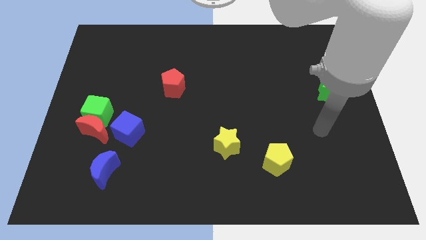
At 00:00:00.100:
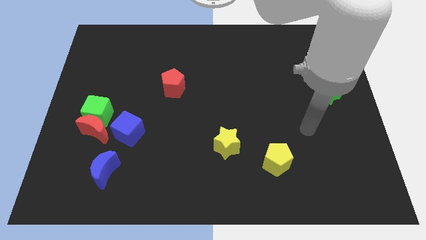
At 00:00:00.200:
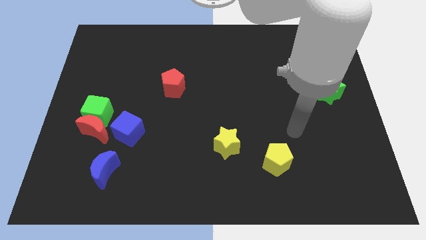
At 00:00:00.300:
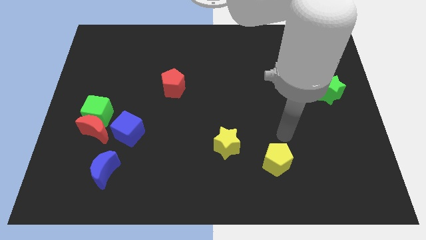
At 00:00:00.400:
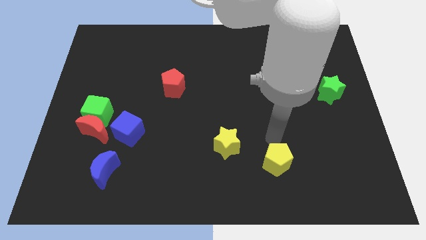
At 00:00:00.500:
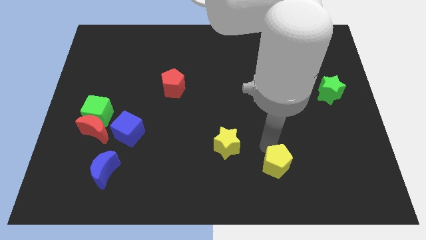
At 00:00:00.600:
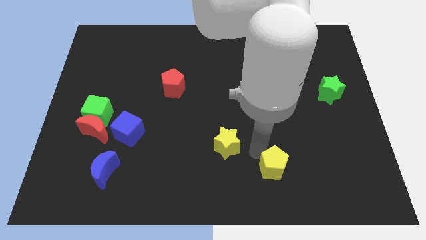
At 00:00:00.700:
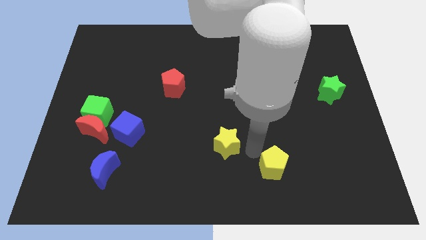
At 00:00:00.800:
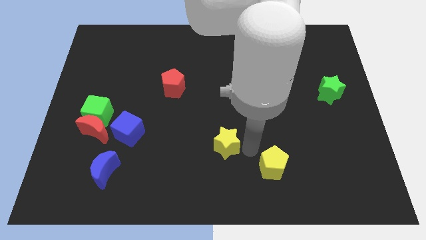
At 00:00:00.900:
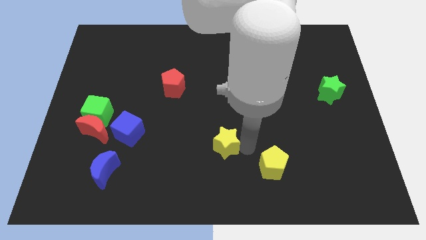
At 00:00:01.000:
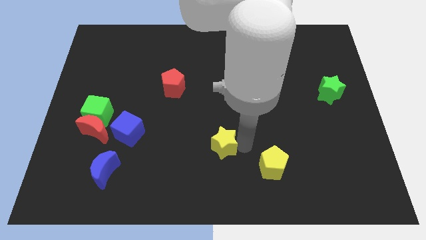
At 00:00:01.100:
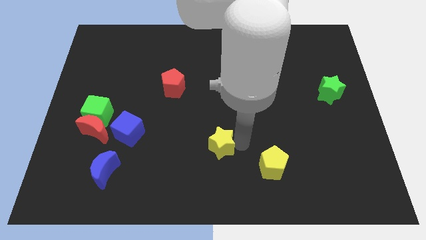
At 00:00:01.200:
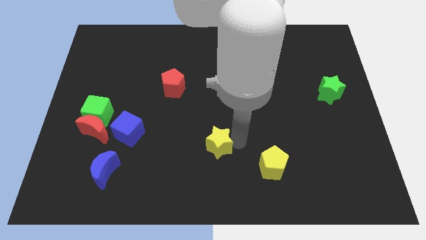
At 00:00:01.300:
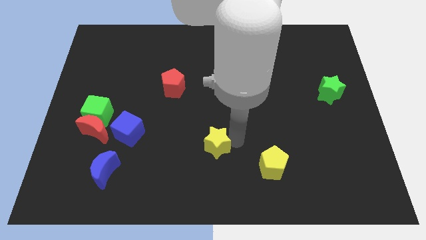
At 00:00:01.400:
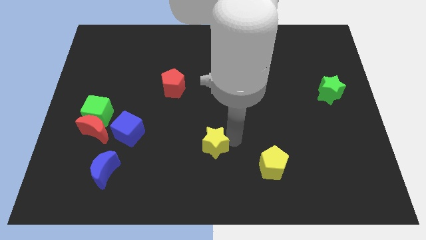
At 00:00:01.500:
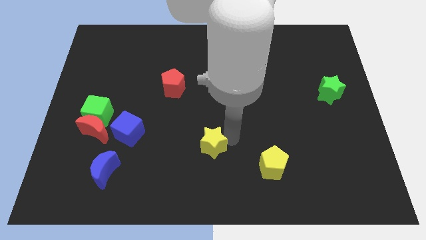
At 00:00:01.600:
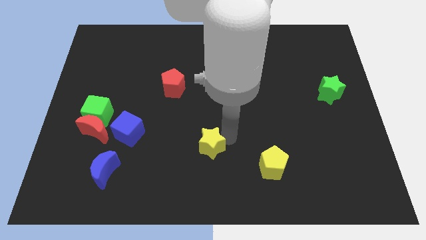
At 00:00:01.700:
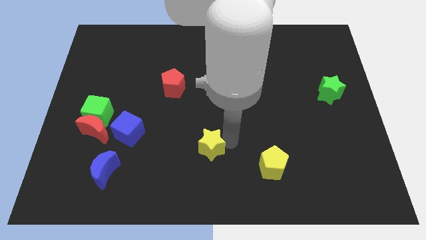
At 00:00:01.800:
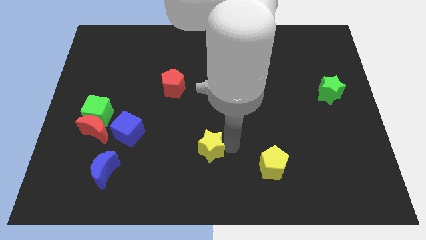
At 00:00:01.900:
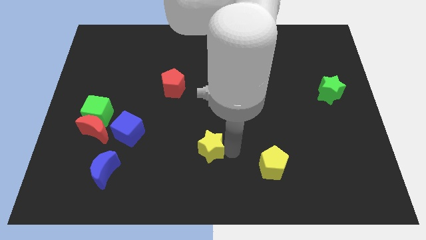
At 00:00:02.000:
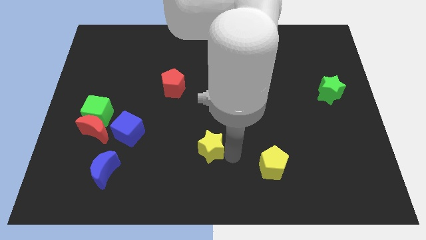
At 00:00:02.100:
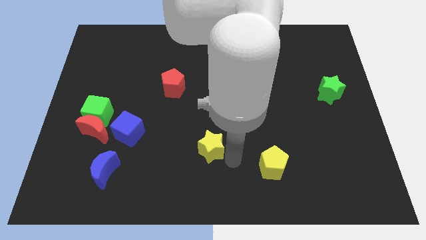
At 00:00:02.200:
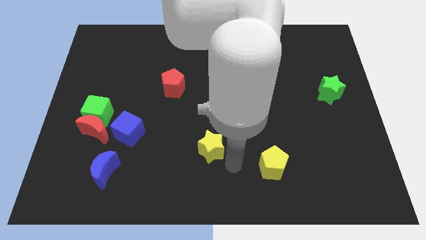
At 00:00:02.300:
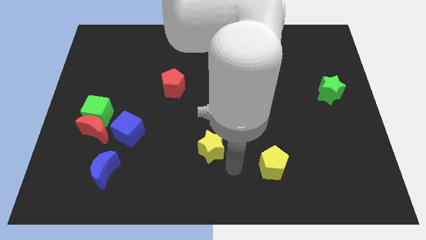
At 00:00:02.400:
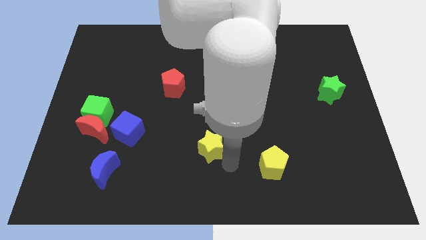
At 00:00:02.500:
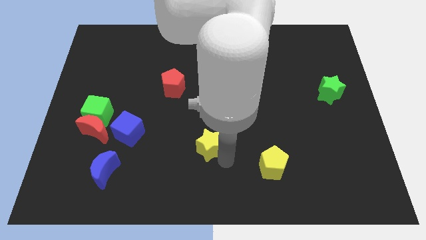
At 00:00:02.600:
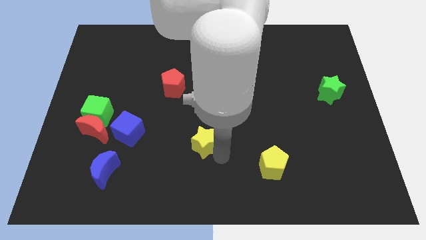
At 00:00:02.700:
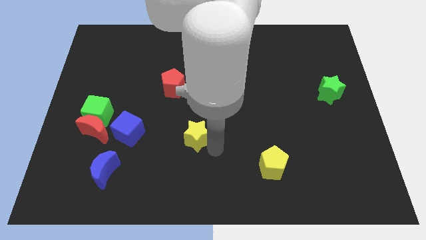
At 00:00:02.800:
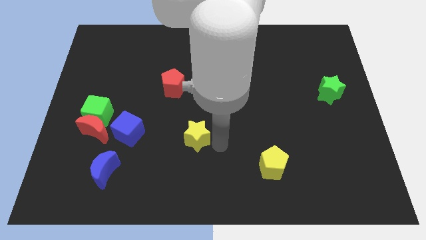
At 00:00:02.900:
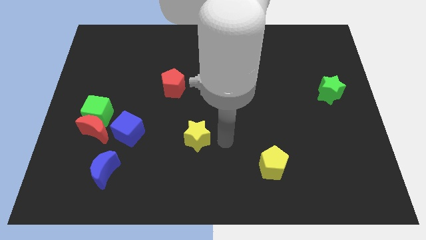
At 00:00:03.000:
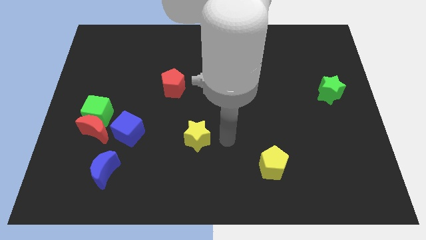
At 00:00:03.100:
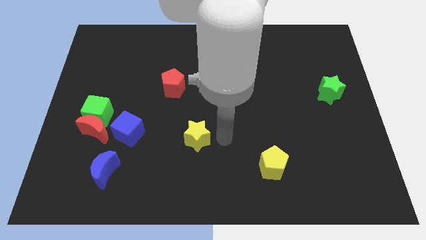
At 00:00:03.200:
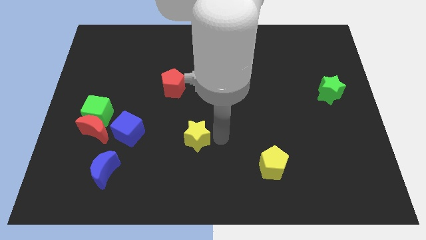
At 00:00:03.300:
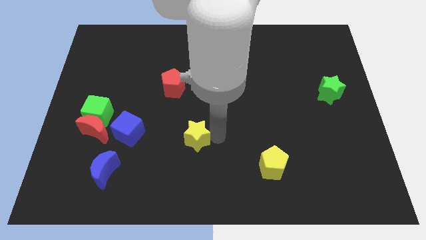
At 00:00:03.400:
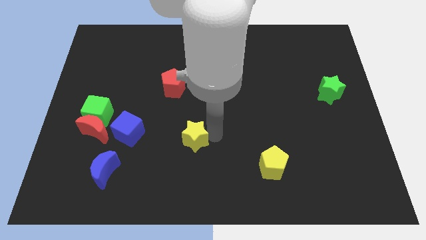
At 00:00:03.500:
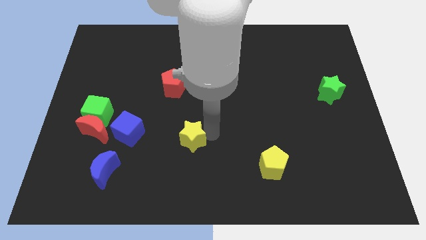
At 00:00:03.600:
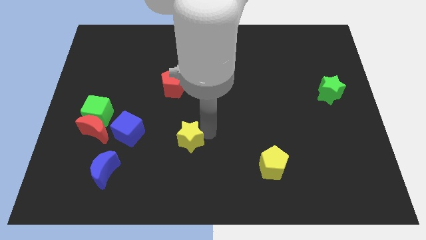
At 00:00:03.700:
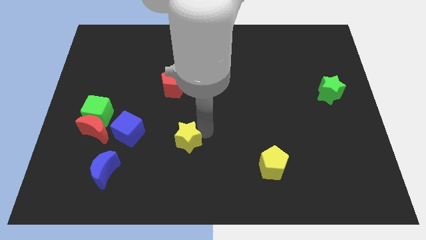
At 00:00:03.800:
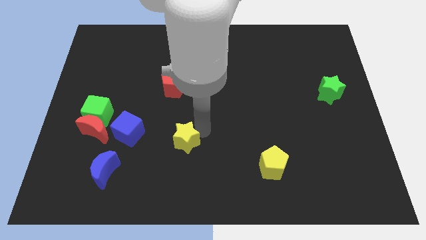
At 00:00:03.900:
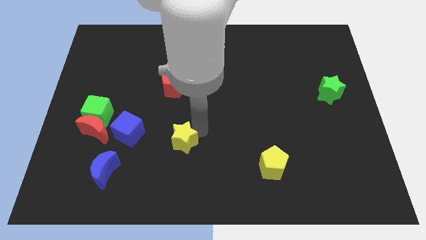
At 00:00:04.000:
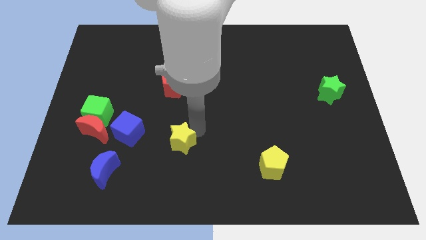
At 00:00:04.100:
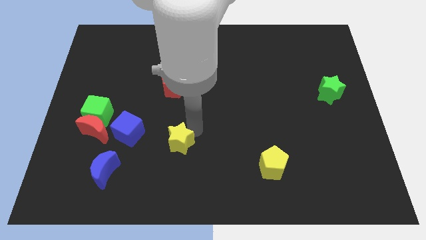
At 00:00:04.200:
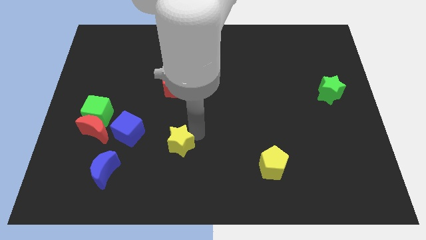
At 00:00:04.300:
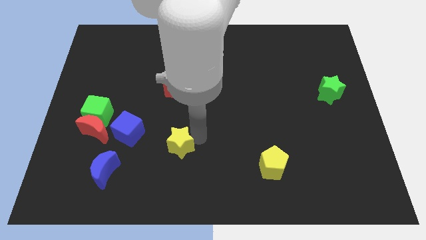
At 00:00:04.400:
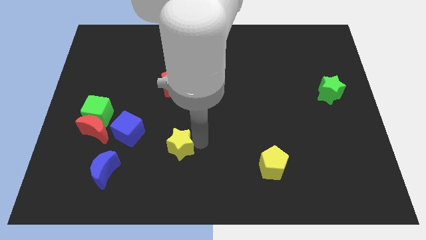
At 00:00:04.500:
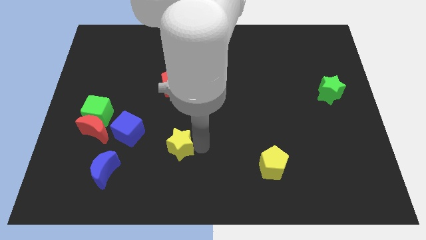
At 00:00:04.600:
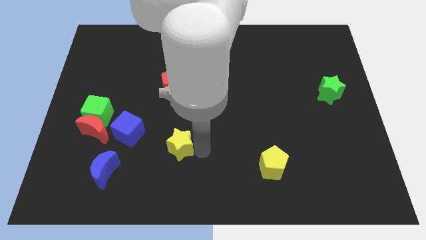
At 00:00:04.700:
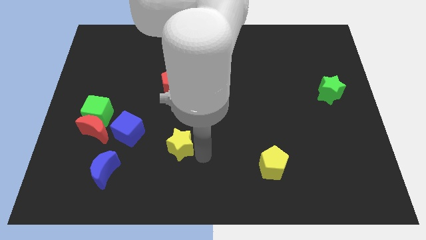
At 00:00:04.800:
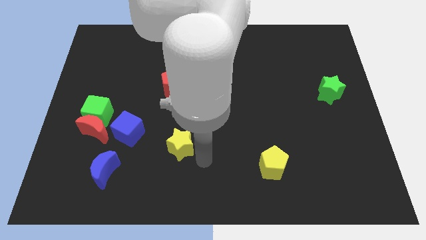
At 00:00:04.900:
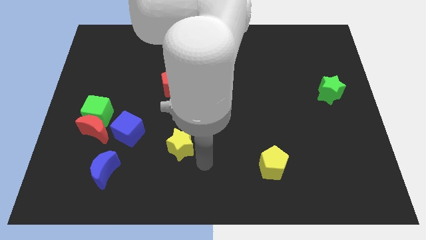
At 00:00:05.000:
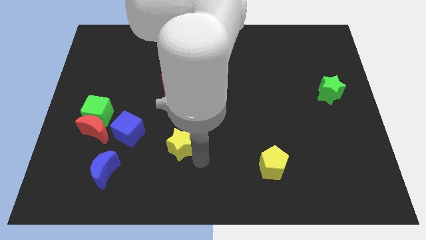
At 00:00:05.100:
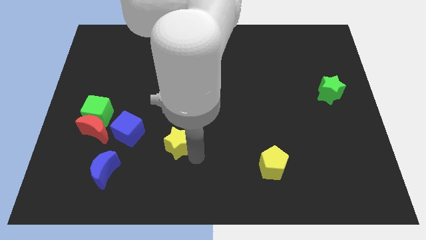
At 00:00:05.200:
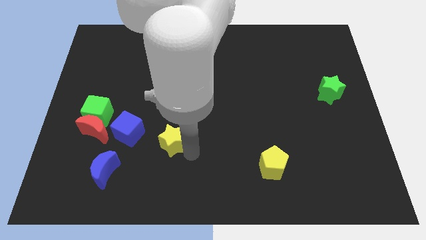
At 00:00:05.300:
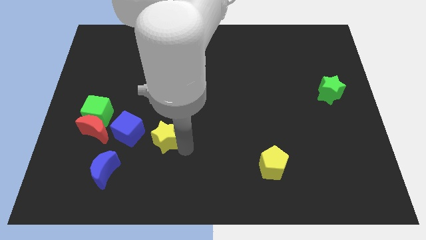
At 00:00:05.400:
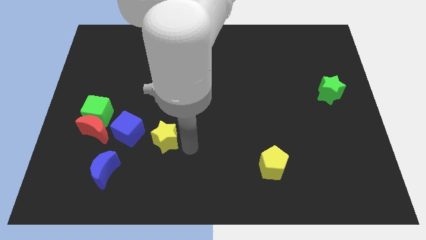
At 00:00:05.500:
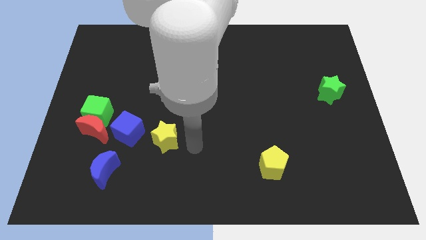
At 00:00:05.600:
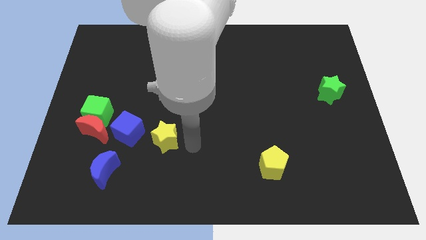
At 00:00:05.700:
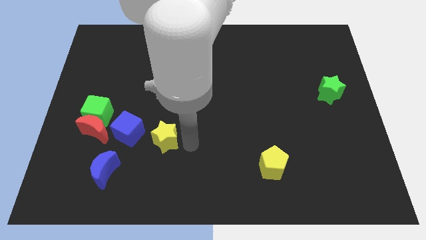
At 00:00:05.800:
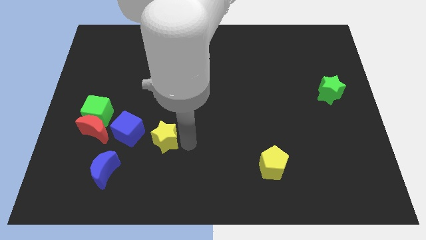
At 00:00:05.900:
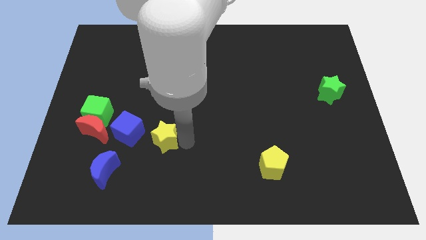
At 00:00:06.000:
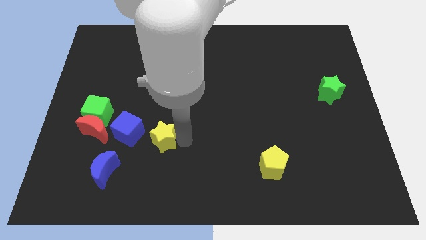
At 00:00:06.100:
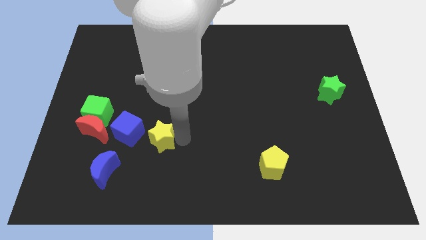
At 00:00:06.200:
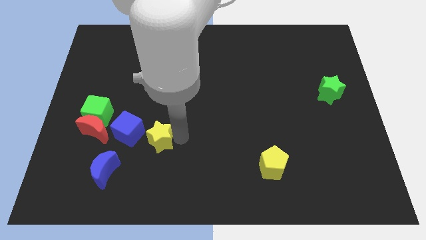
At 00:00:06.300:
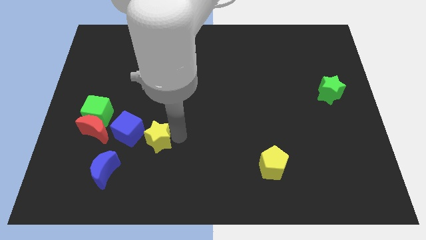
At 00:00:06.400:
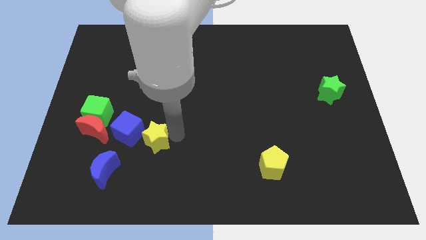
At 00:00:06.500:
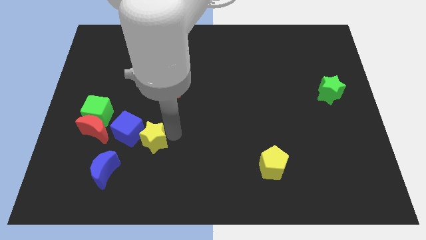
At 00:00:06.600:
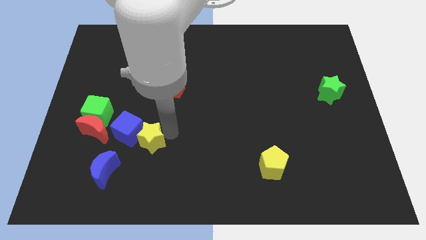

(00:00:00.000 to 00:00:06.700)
push the yellow star to the blue cube
